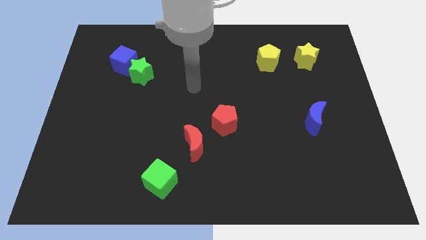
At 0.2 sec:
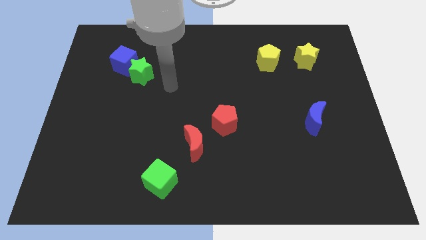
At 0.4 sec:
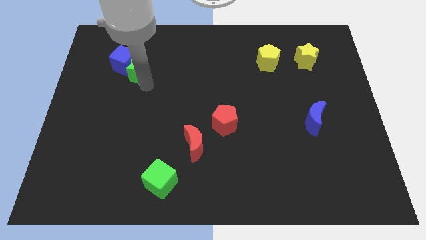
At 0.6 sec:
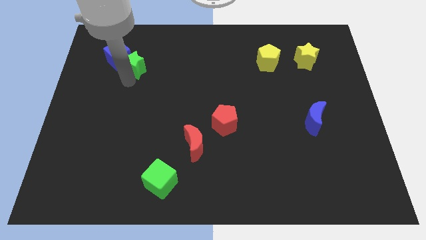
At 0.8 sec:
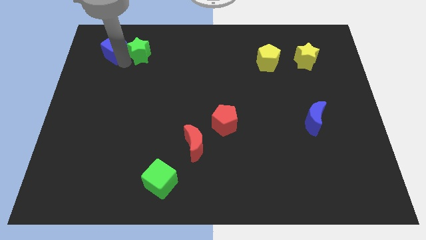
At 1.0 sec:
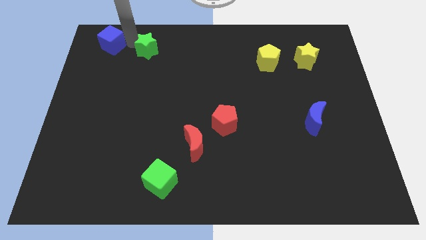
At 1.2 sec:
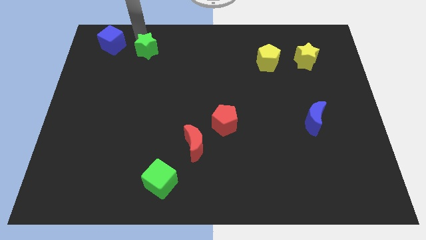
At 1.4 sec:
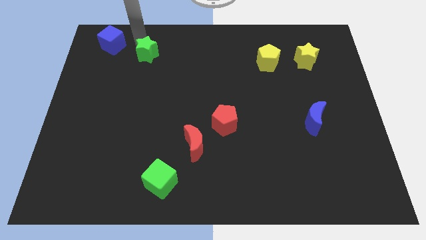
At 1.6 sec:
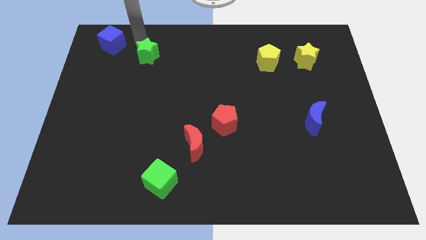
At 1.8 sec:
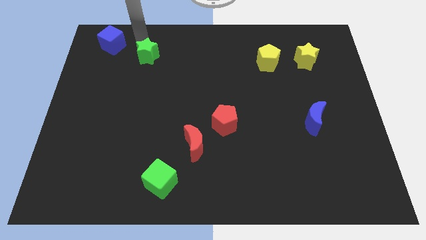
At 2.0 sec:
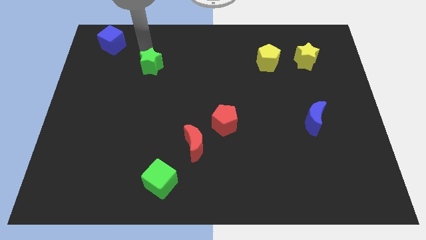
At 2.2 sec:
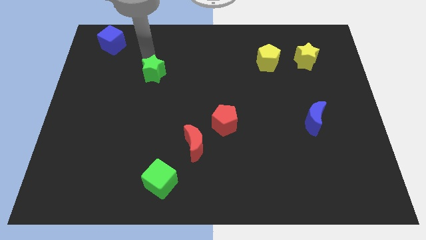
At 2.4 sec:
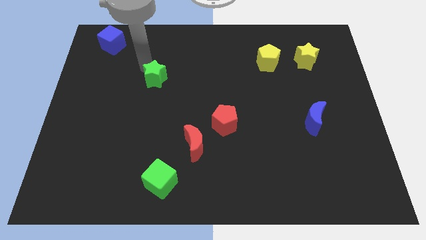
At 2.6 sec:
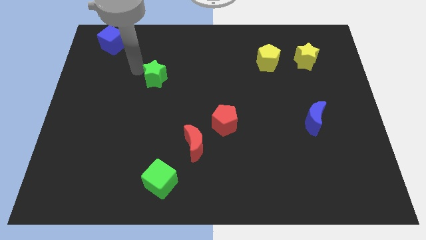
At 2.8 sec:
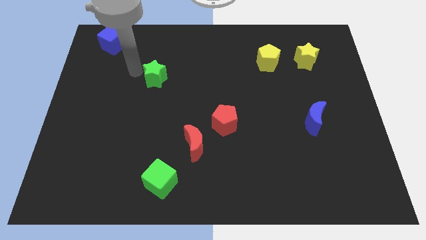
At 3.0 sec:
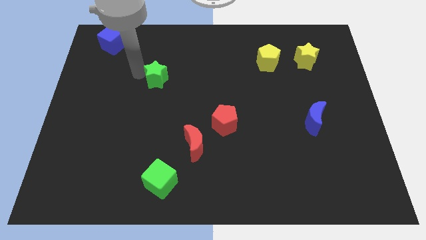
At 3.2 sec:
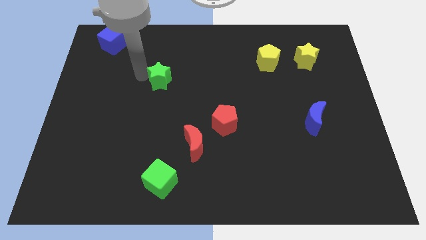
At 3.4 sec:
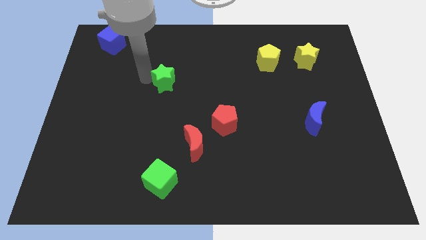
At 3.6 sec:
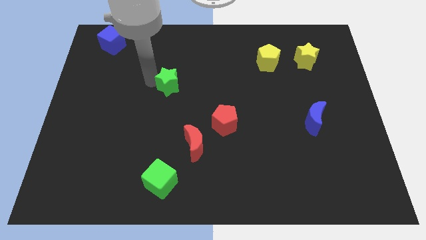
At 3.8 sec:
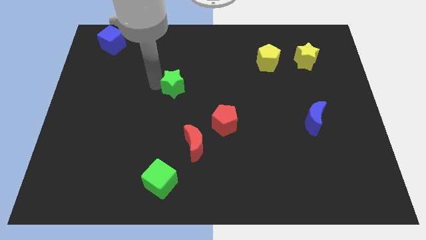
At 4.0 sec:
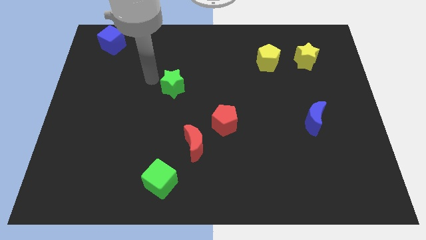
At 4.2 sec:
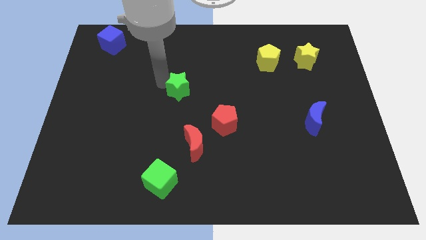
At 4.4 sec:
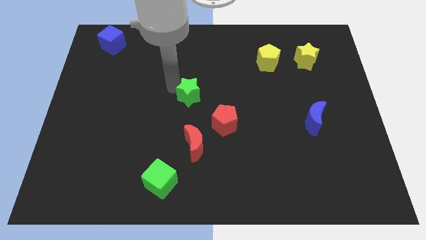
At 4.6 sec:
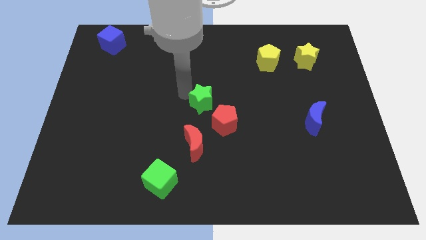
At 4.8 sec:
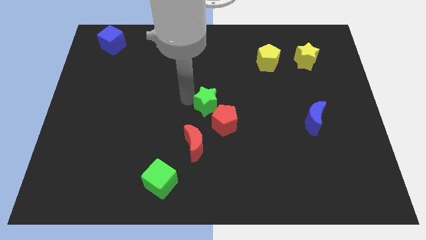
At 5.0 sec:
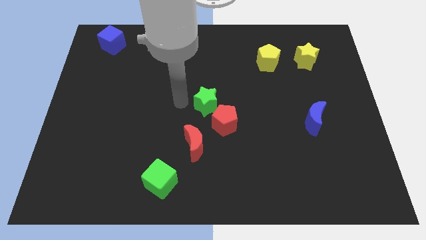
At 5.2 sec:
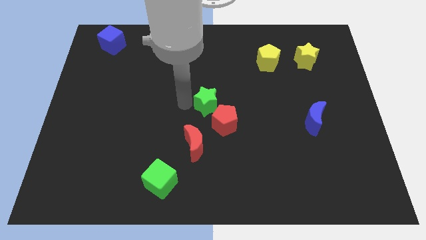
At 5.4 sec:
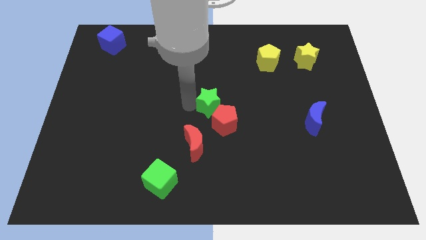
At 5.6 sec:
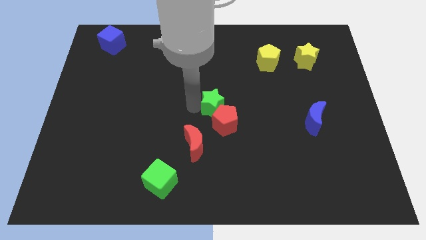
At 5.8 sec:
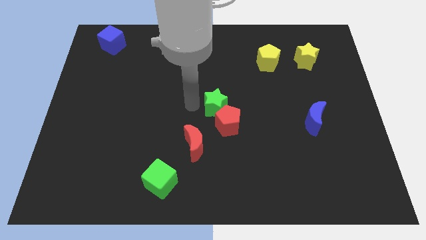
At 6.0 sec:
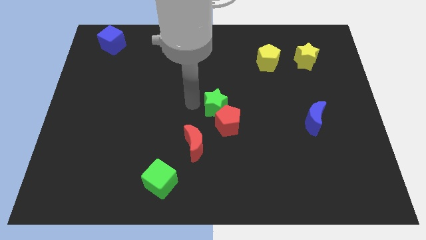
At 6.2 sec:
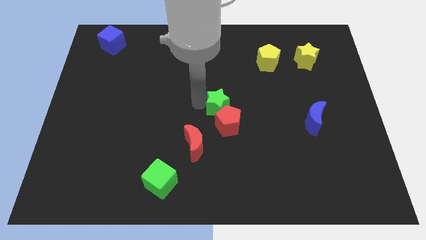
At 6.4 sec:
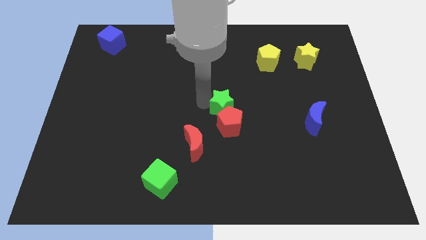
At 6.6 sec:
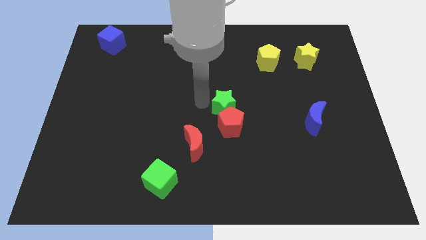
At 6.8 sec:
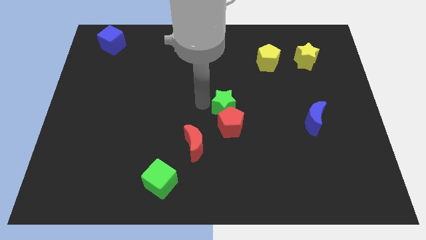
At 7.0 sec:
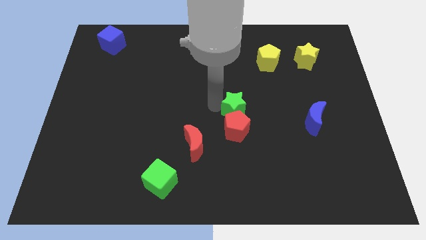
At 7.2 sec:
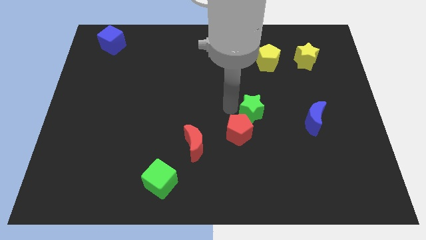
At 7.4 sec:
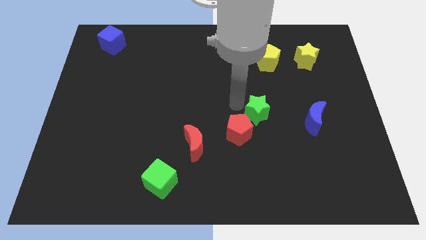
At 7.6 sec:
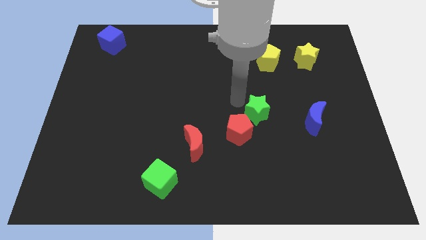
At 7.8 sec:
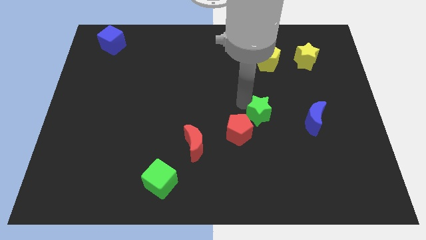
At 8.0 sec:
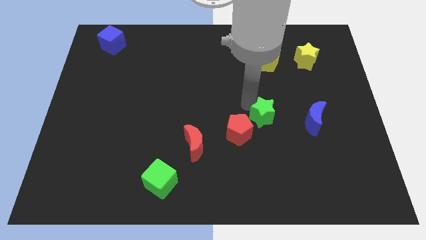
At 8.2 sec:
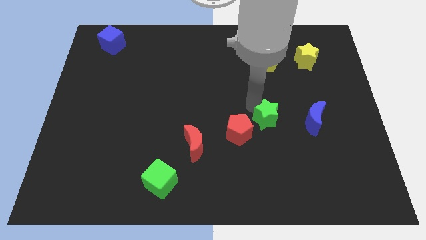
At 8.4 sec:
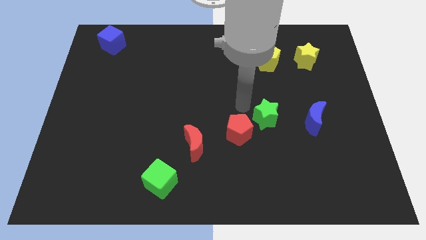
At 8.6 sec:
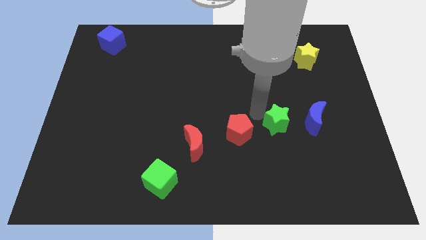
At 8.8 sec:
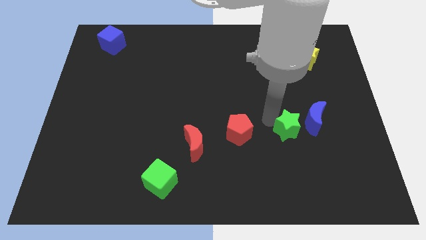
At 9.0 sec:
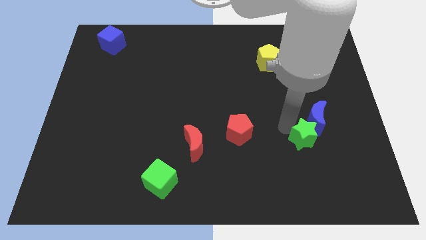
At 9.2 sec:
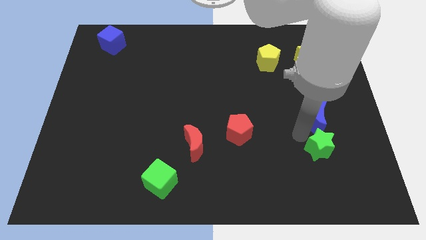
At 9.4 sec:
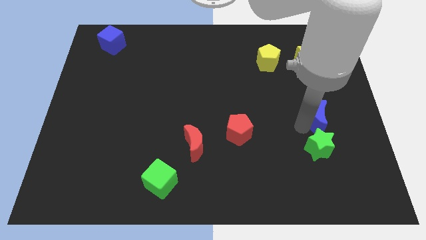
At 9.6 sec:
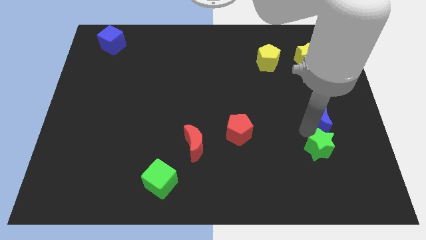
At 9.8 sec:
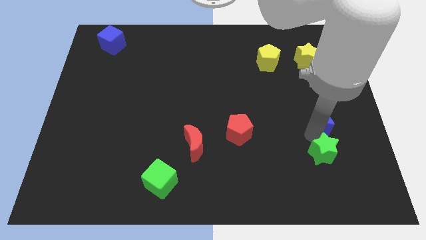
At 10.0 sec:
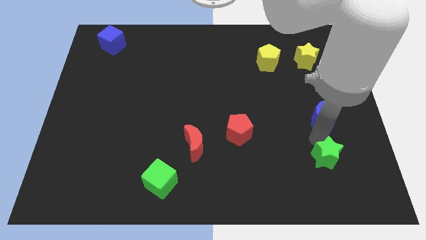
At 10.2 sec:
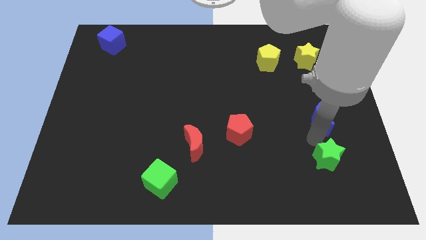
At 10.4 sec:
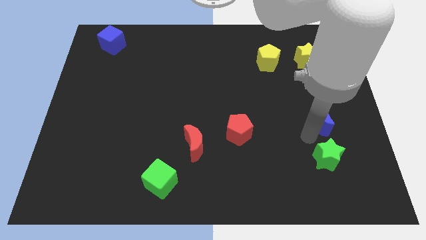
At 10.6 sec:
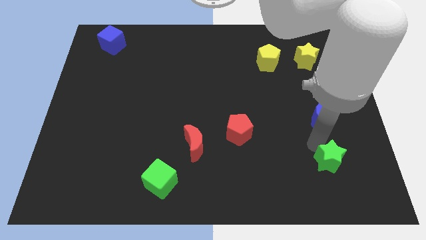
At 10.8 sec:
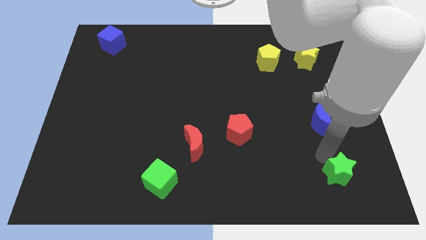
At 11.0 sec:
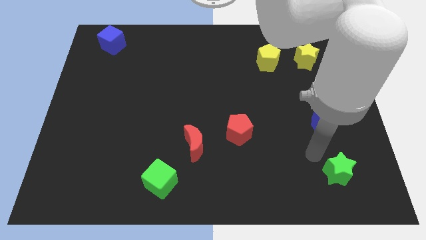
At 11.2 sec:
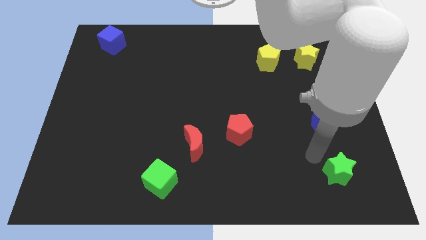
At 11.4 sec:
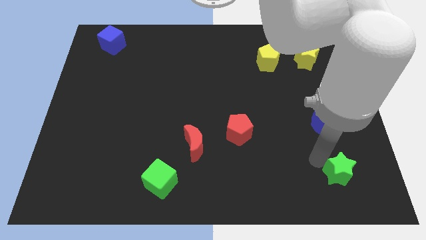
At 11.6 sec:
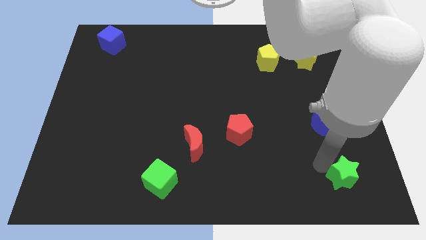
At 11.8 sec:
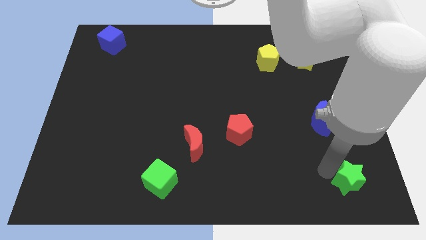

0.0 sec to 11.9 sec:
put the green star to the bottom right of the board

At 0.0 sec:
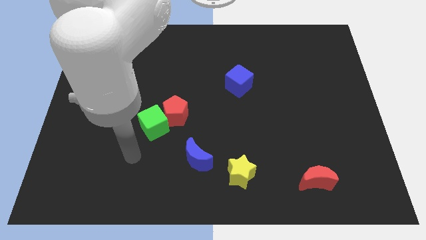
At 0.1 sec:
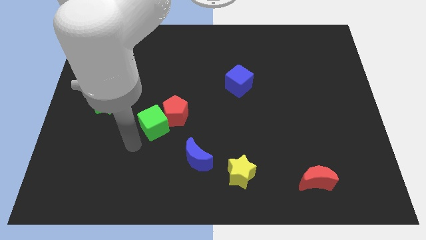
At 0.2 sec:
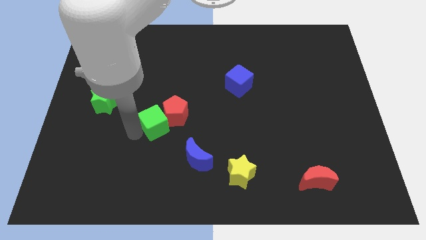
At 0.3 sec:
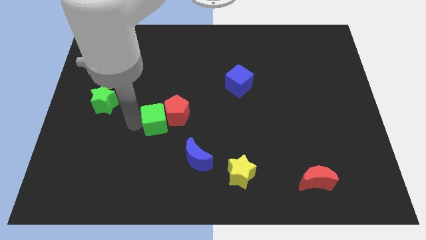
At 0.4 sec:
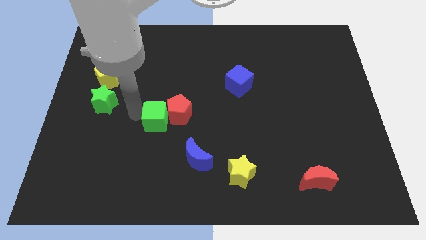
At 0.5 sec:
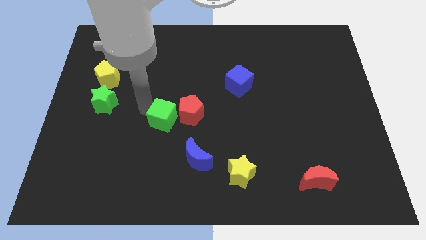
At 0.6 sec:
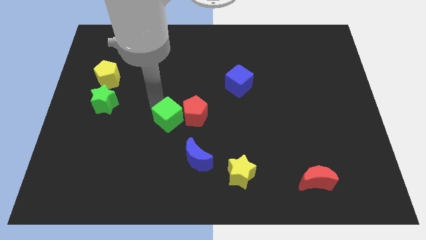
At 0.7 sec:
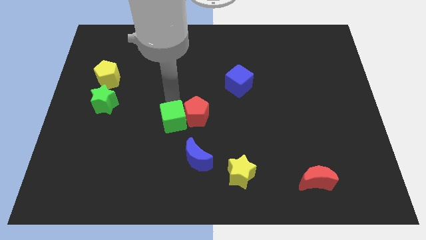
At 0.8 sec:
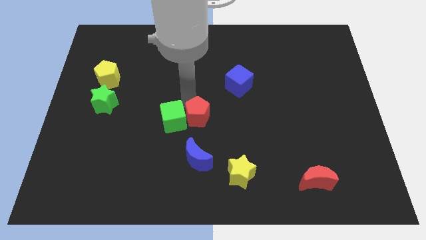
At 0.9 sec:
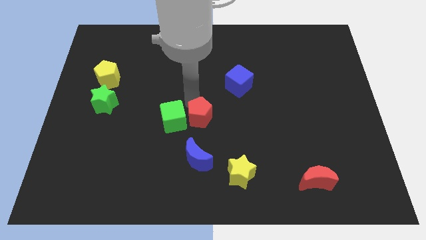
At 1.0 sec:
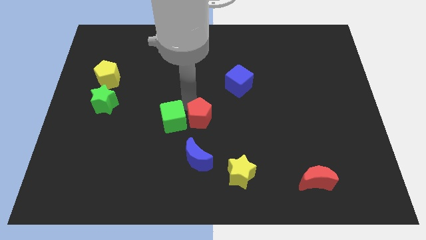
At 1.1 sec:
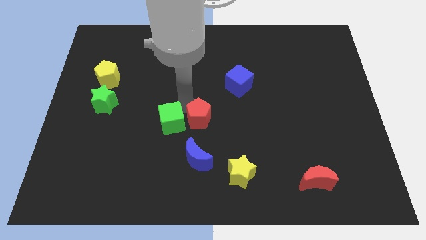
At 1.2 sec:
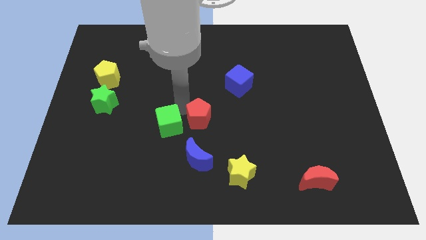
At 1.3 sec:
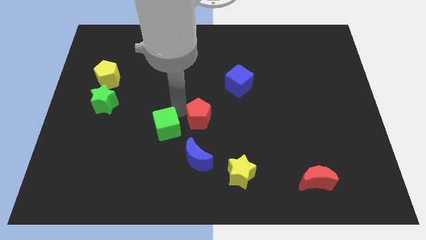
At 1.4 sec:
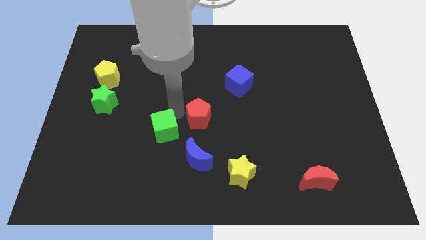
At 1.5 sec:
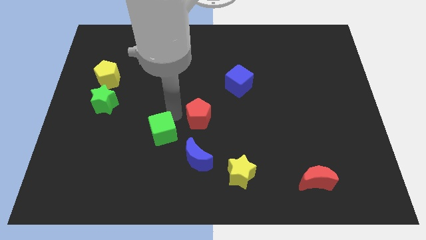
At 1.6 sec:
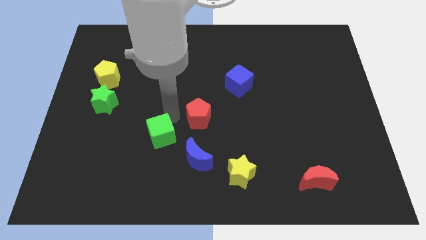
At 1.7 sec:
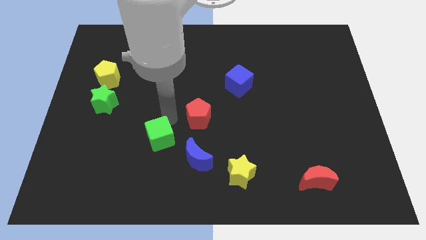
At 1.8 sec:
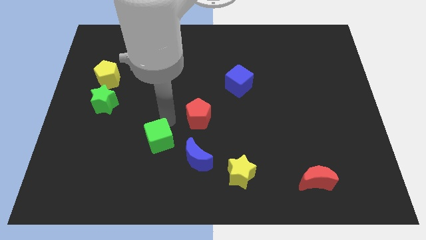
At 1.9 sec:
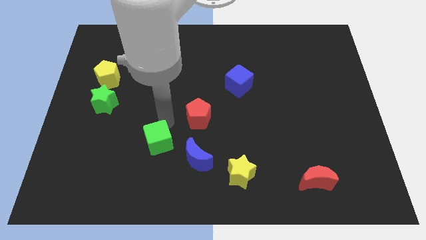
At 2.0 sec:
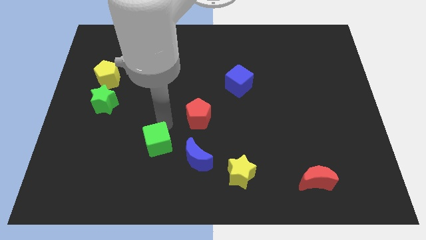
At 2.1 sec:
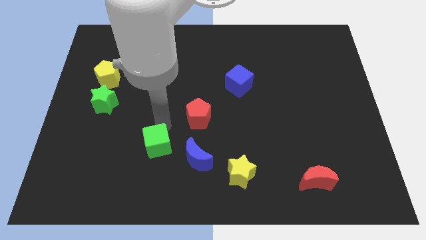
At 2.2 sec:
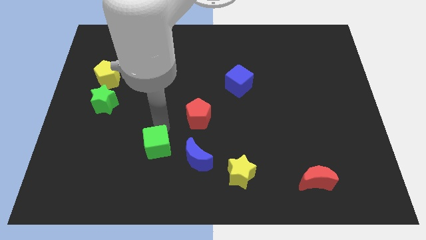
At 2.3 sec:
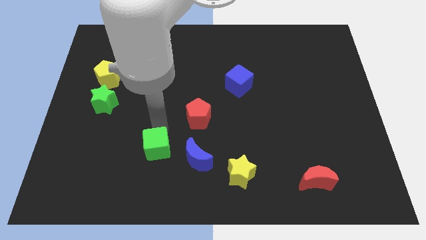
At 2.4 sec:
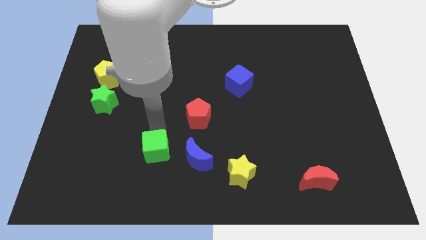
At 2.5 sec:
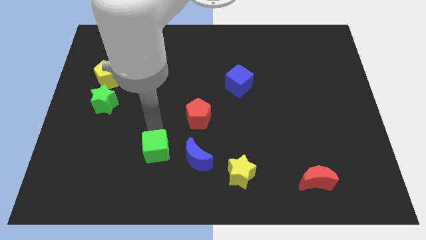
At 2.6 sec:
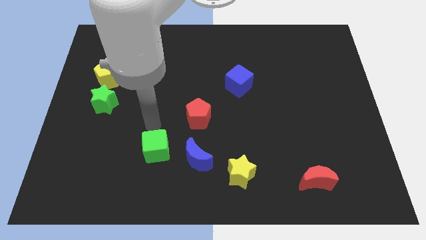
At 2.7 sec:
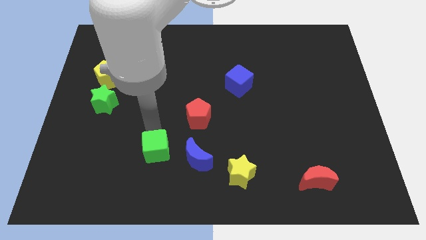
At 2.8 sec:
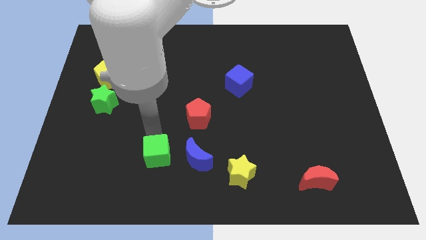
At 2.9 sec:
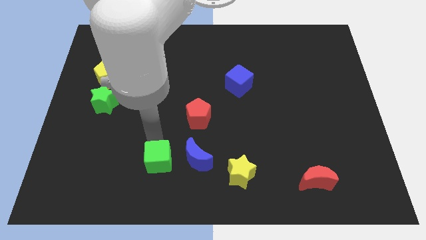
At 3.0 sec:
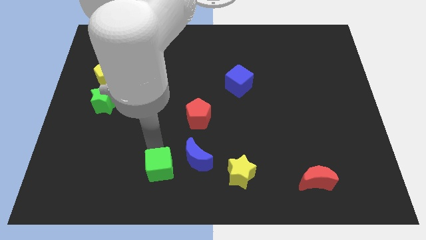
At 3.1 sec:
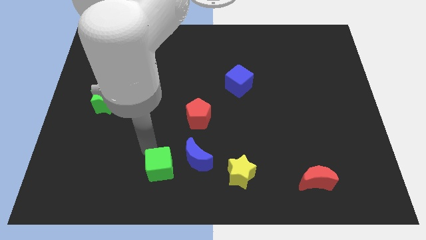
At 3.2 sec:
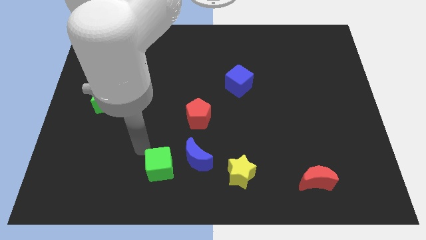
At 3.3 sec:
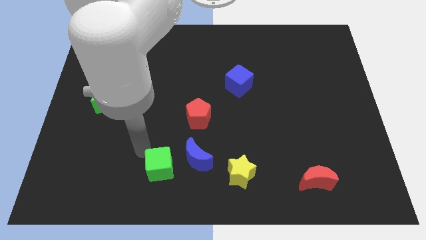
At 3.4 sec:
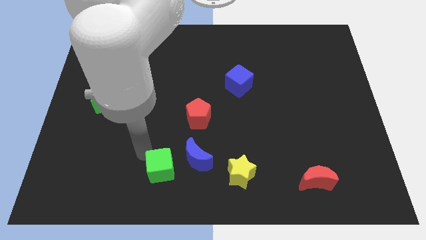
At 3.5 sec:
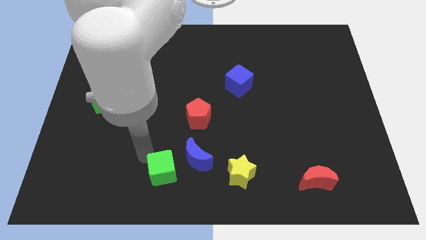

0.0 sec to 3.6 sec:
put the green cube to the bottom
